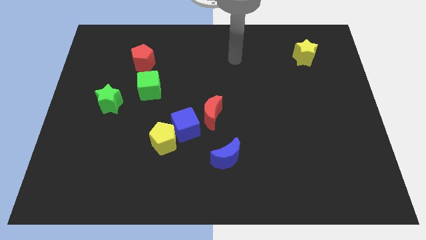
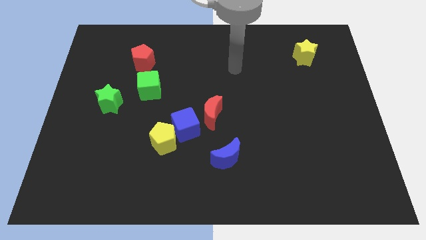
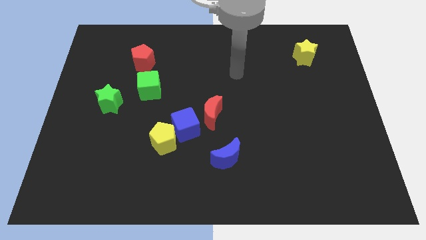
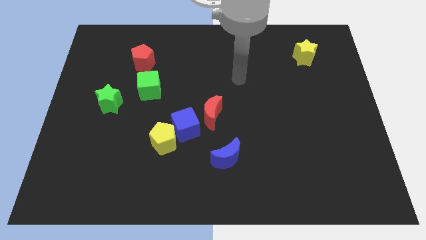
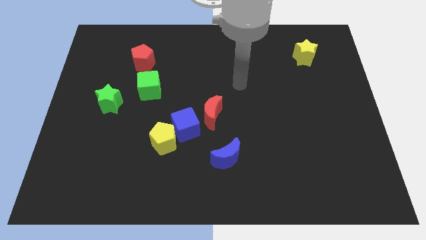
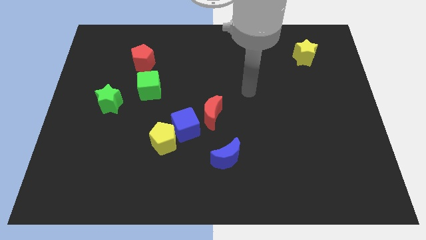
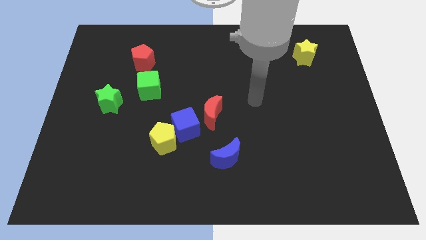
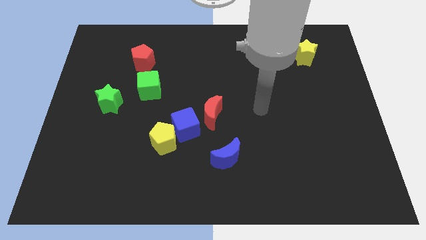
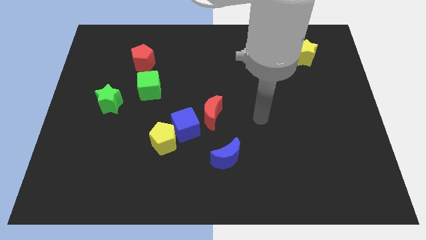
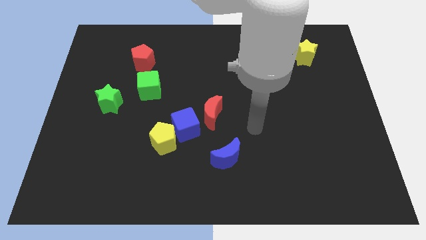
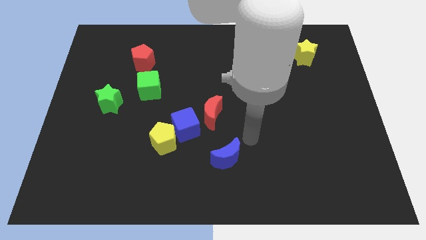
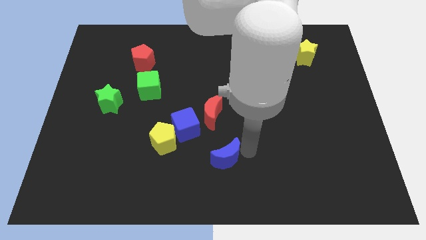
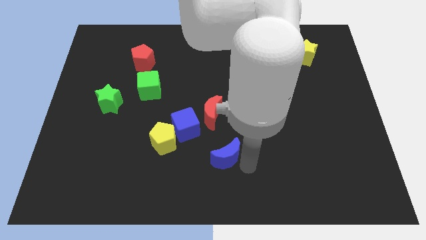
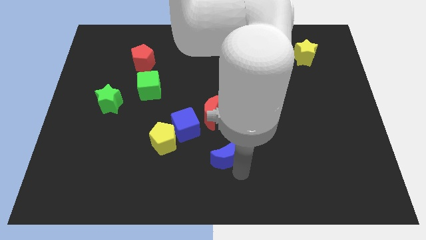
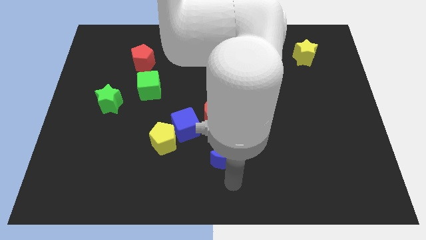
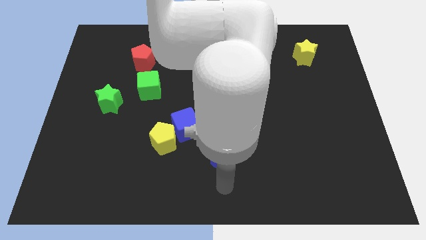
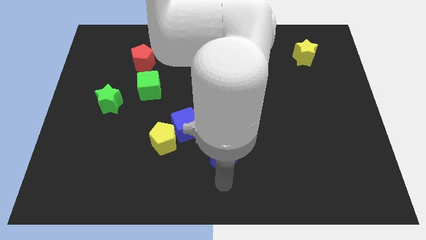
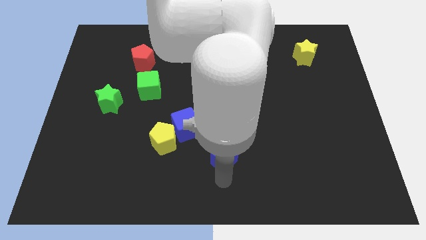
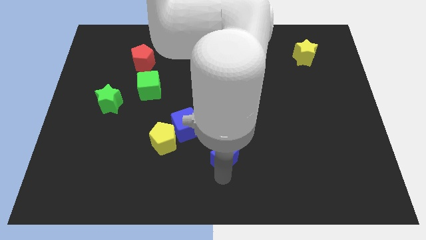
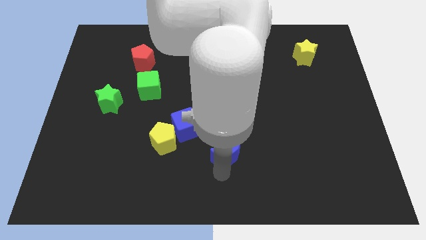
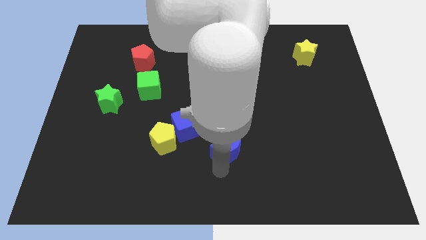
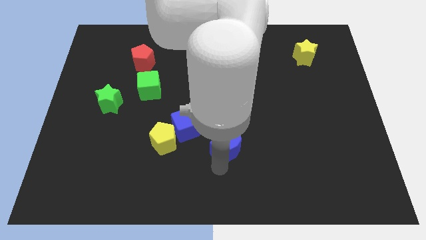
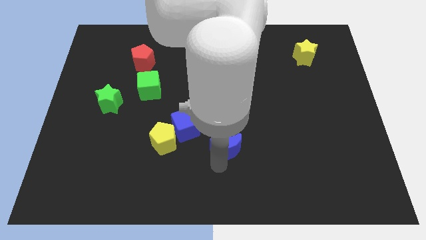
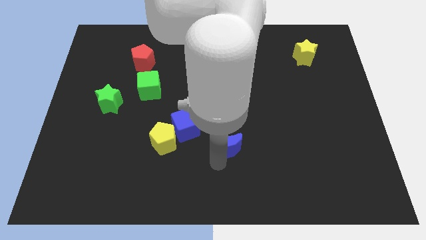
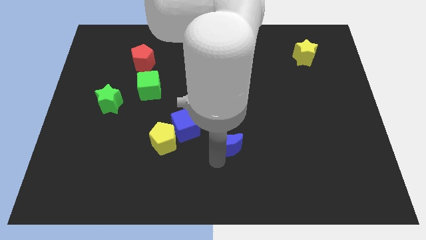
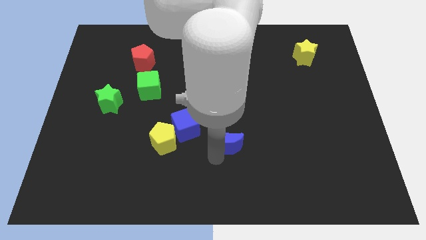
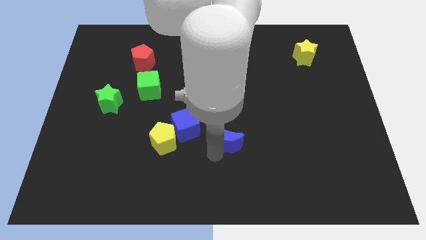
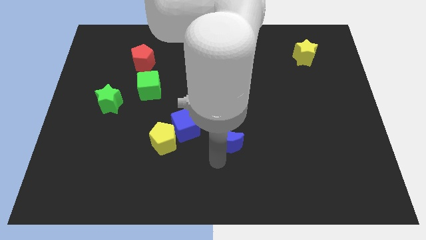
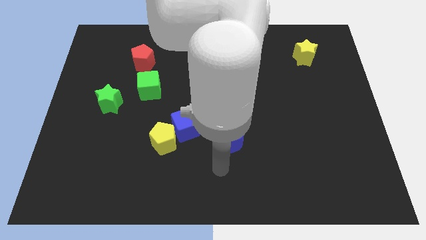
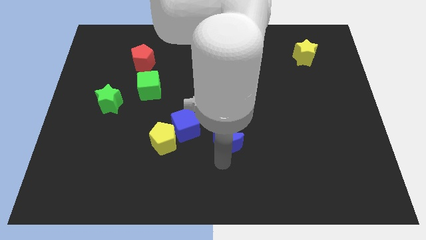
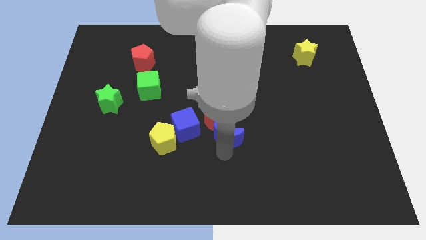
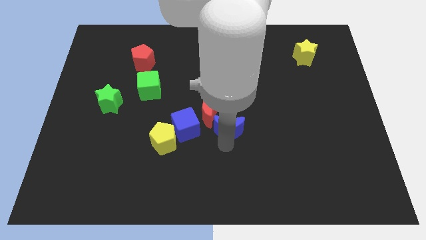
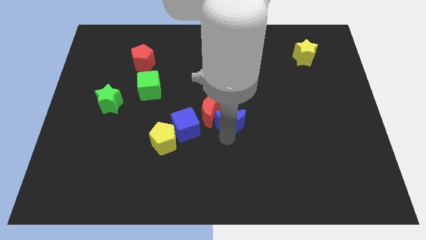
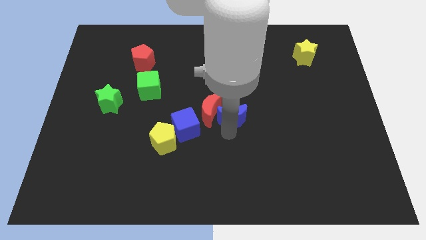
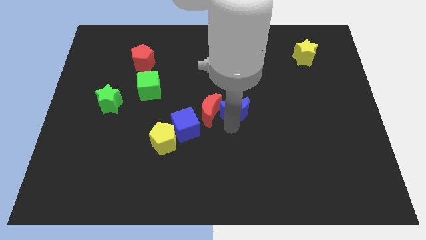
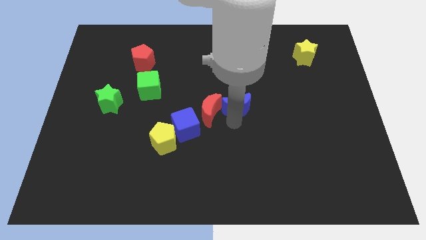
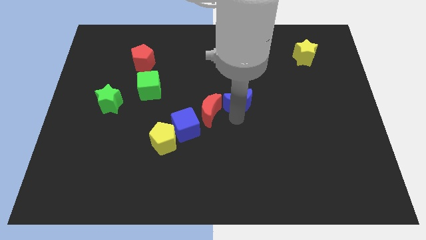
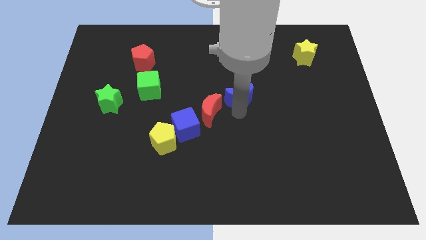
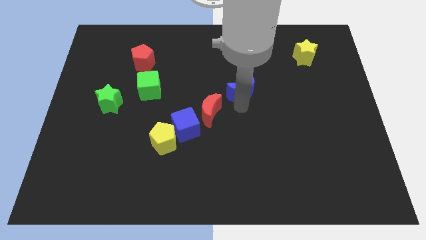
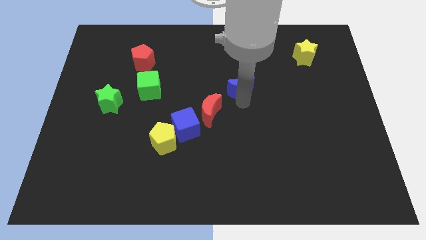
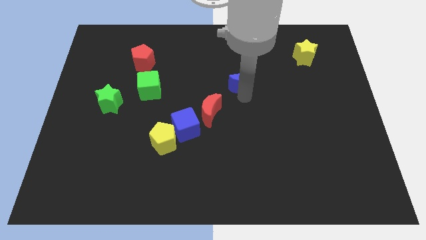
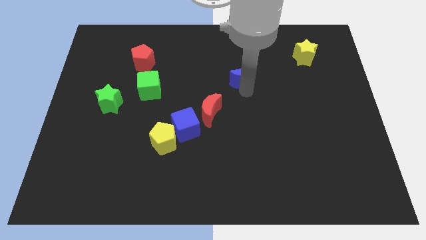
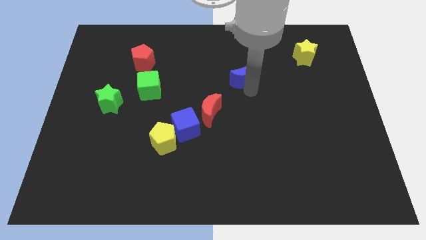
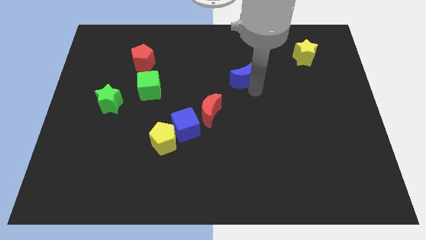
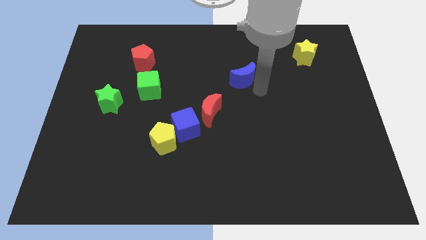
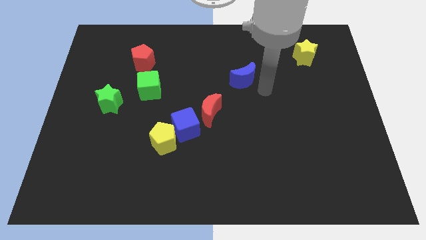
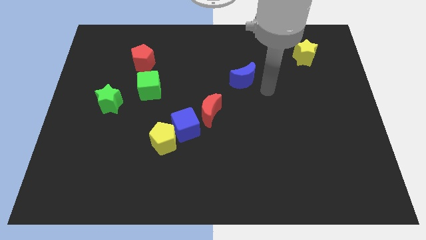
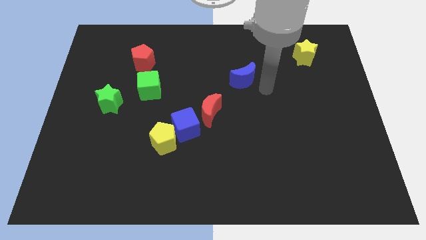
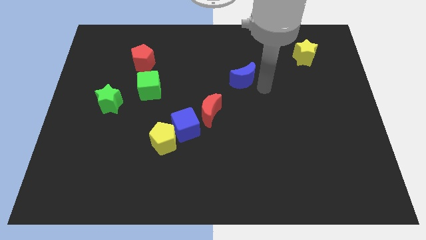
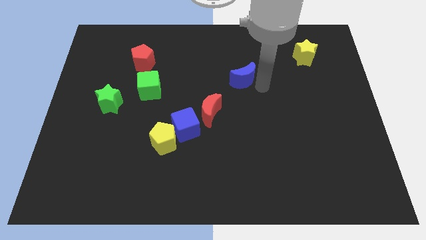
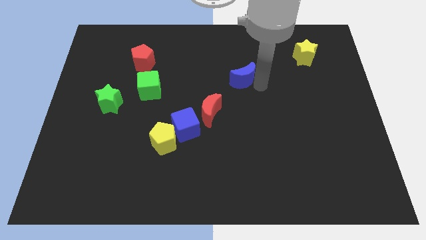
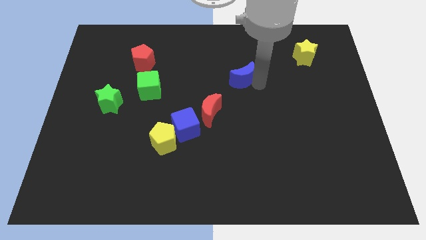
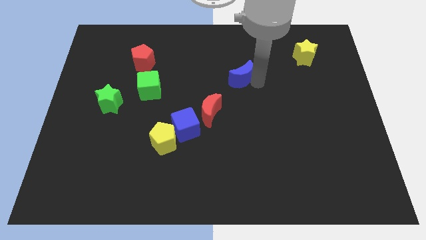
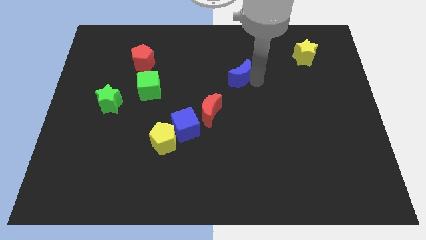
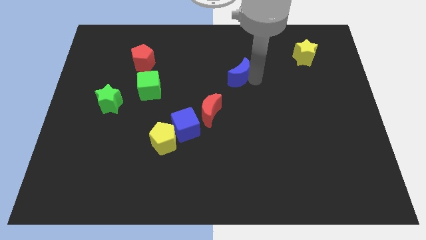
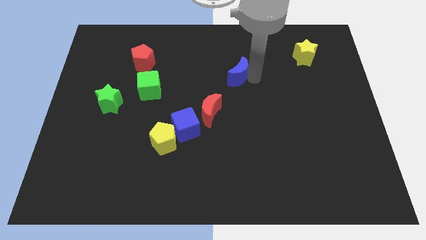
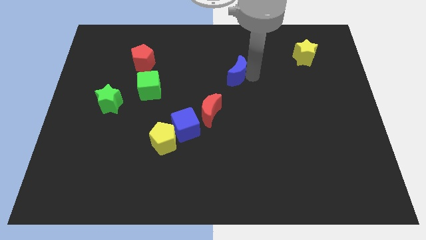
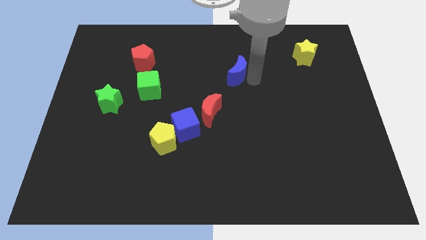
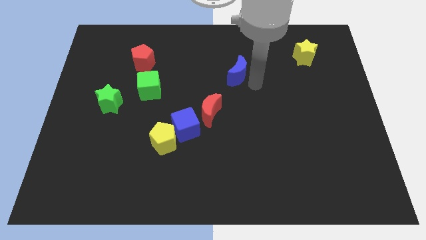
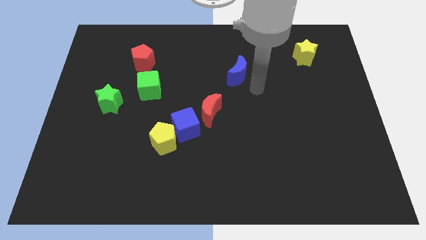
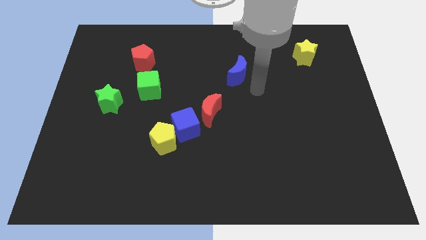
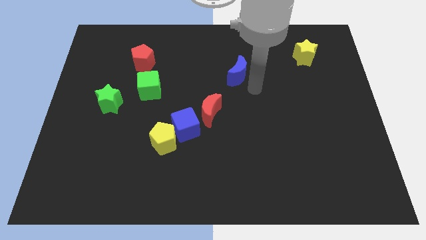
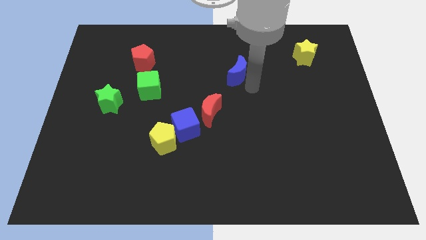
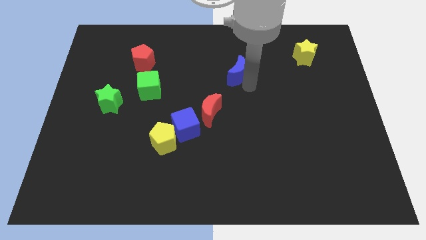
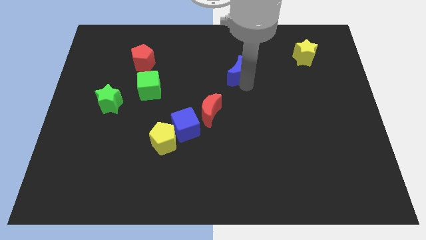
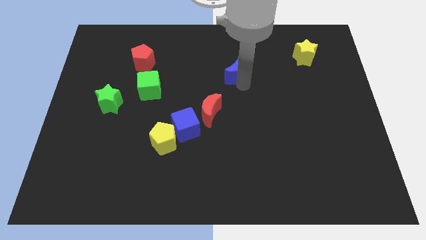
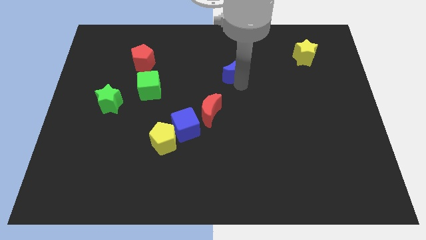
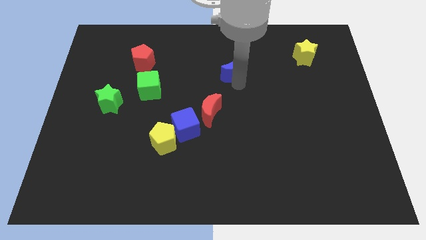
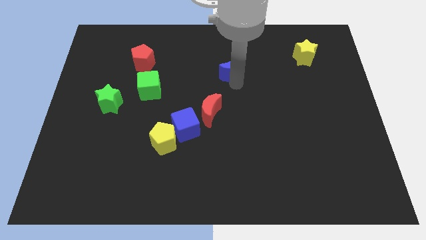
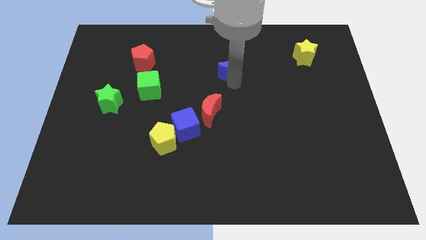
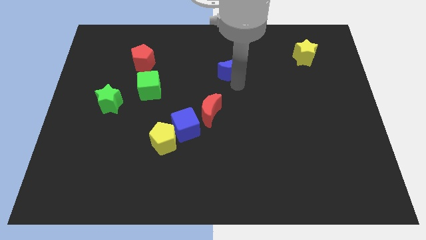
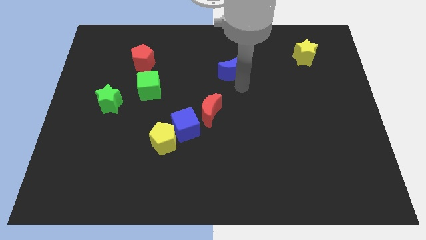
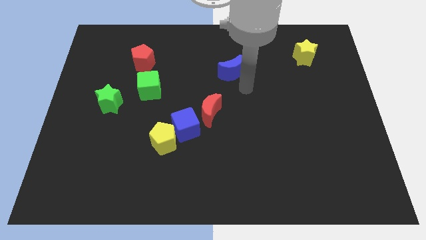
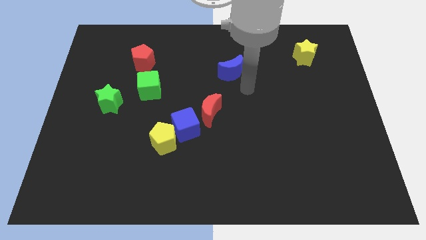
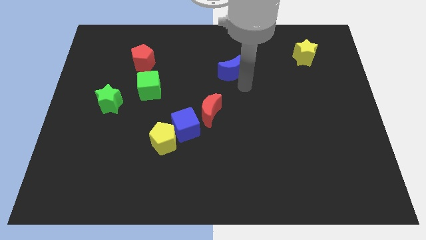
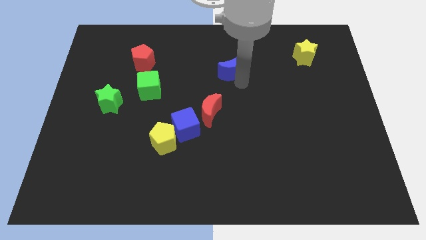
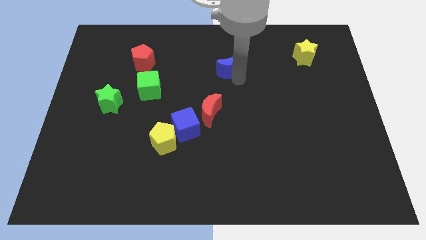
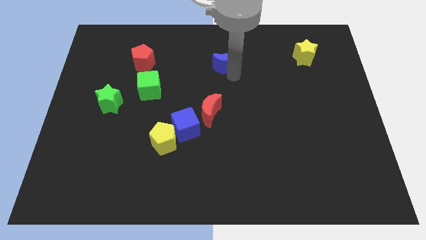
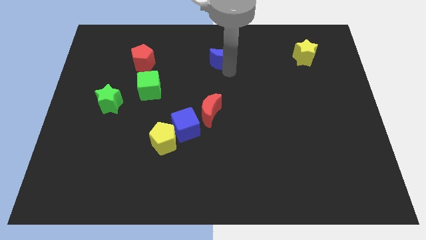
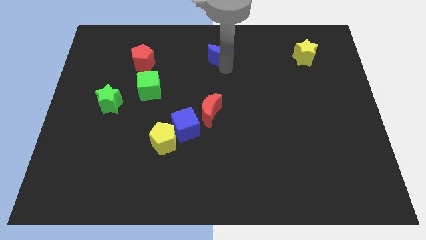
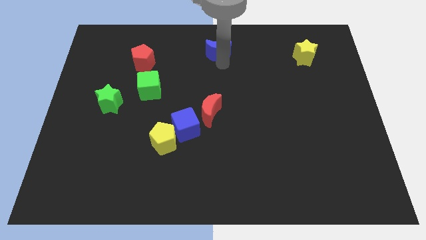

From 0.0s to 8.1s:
slide the blue moon to the top side
